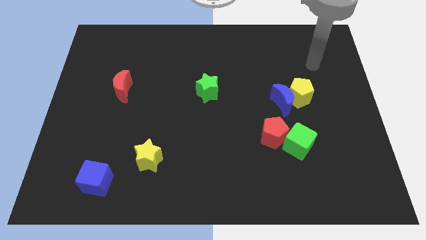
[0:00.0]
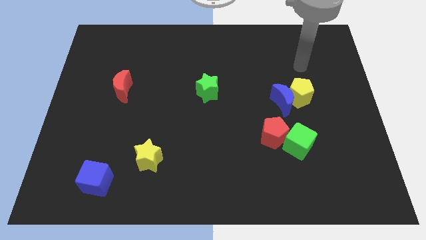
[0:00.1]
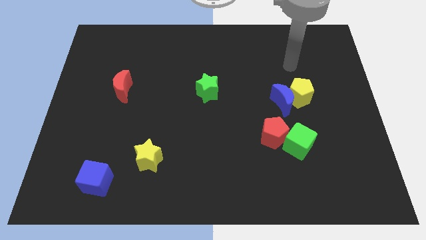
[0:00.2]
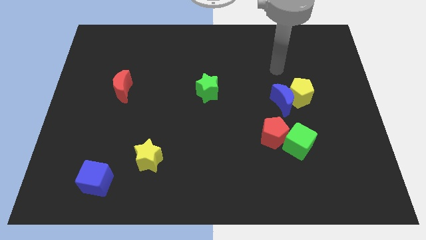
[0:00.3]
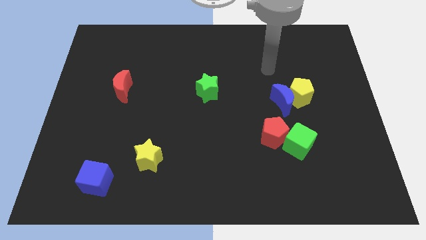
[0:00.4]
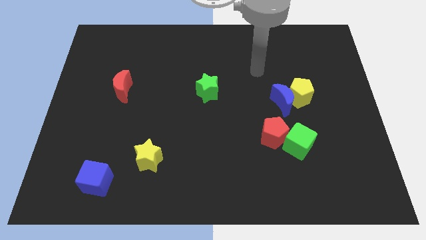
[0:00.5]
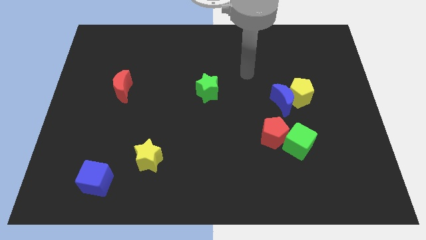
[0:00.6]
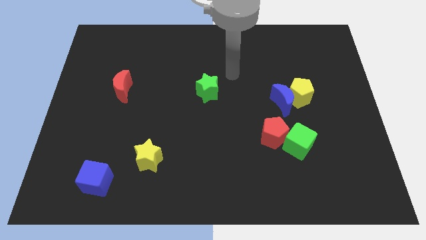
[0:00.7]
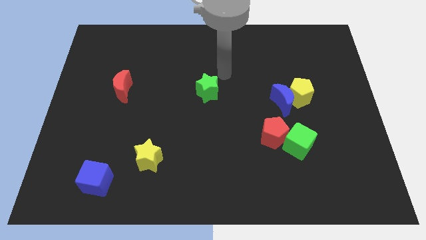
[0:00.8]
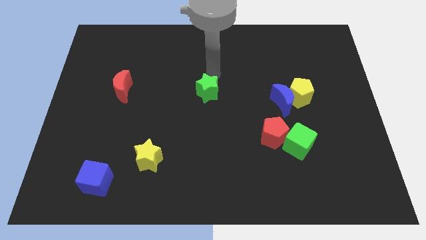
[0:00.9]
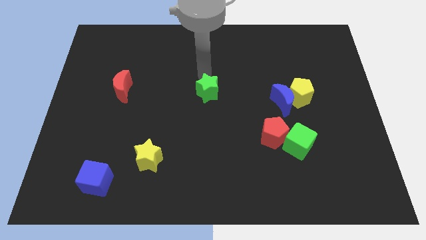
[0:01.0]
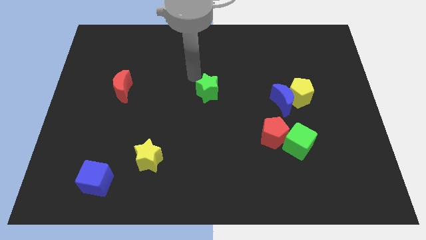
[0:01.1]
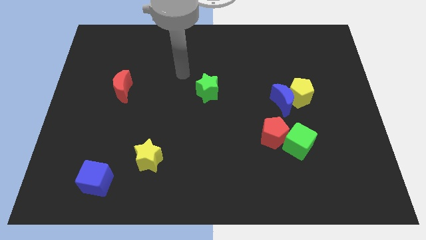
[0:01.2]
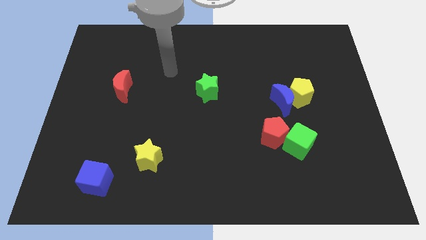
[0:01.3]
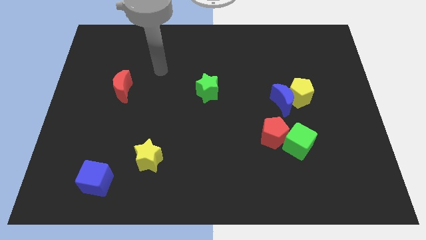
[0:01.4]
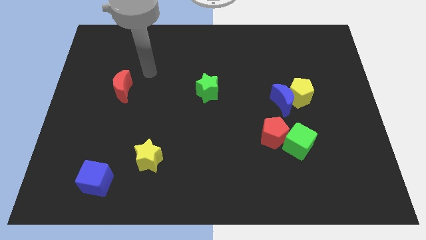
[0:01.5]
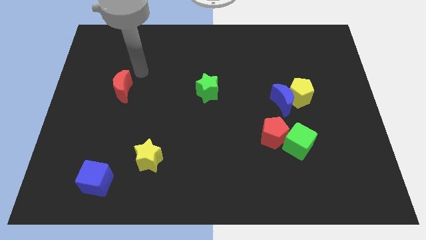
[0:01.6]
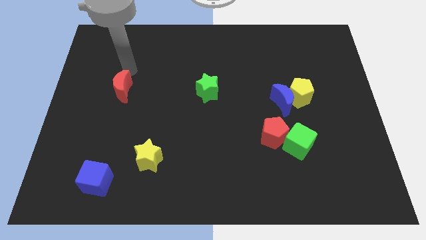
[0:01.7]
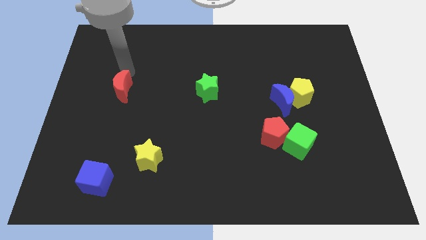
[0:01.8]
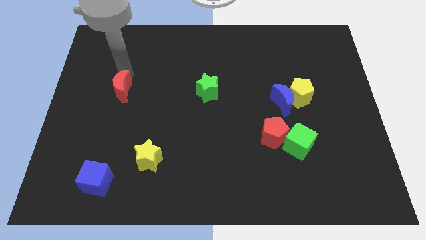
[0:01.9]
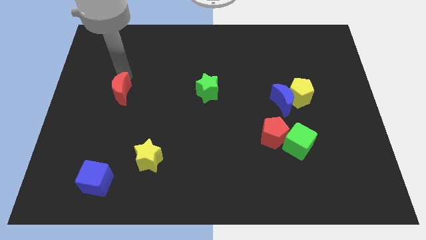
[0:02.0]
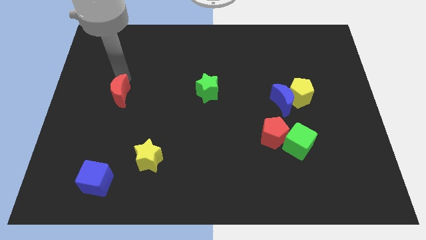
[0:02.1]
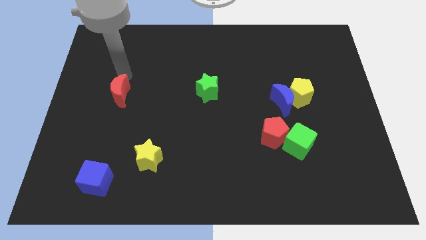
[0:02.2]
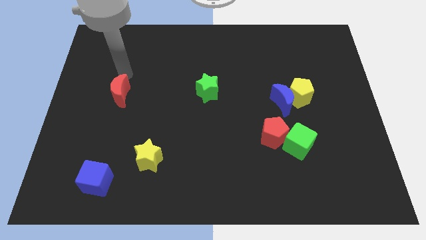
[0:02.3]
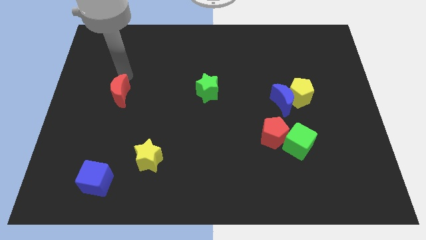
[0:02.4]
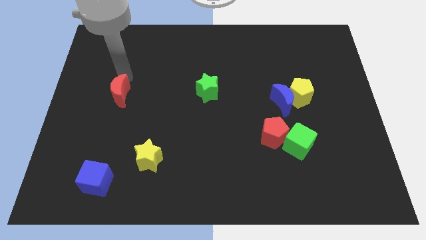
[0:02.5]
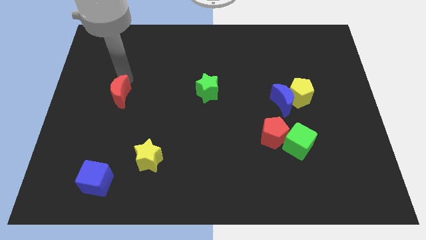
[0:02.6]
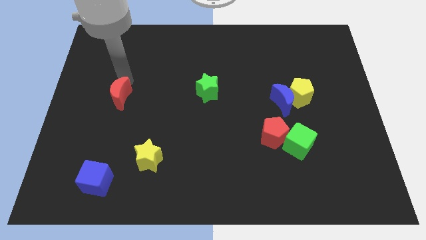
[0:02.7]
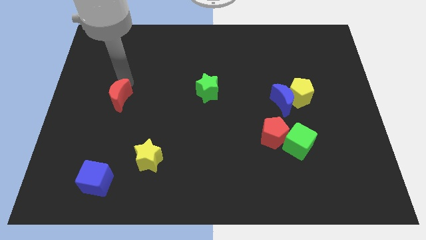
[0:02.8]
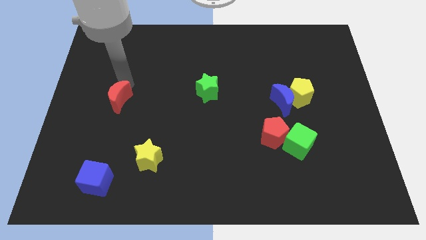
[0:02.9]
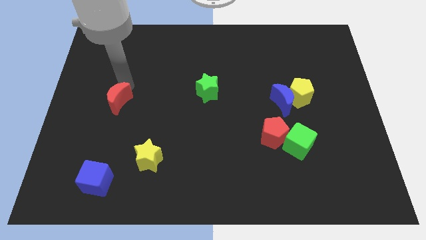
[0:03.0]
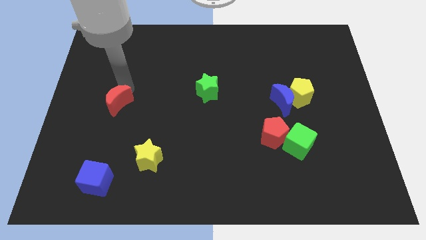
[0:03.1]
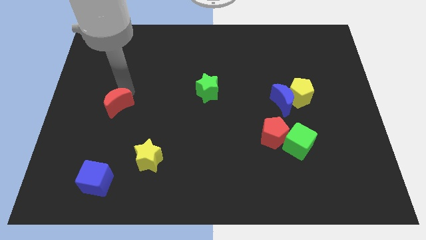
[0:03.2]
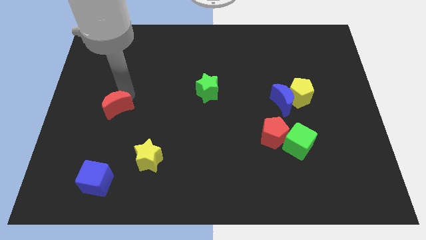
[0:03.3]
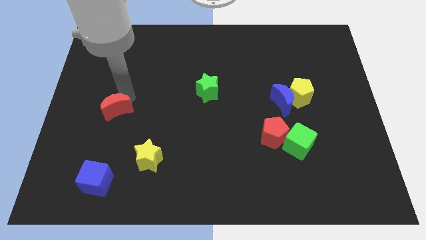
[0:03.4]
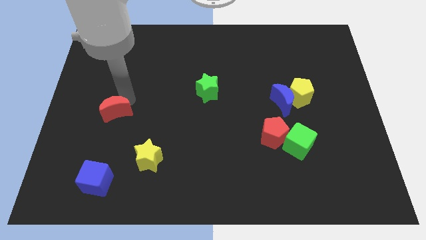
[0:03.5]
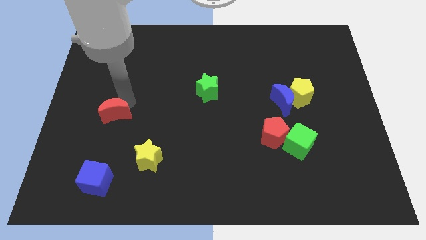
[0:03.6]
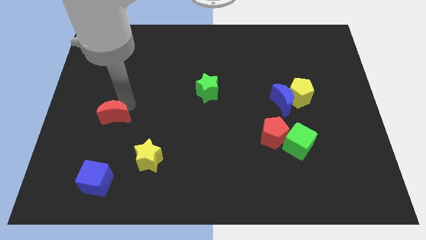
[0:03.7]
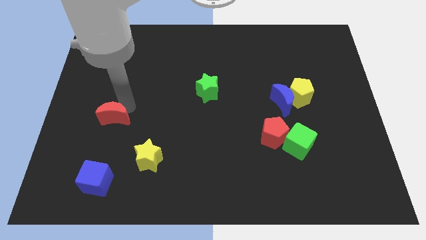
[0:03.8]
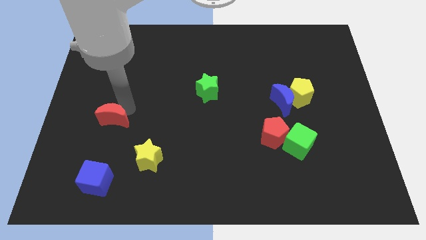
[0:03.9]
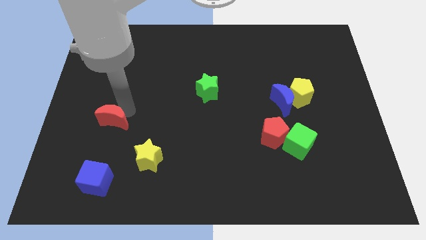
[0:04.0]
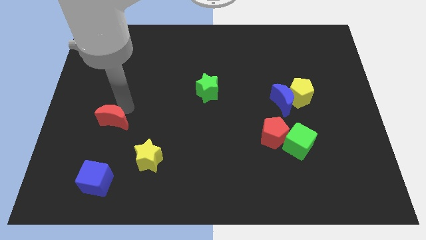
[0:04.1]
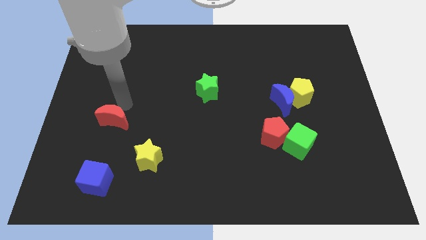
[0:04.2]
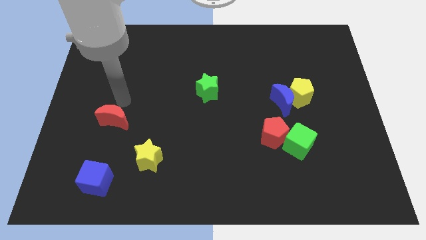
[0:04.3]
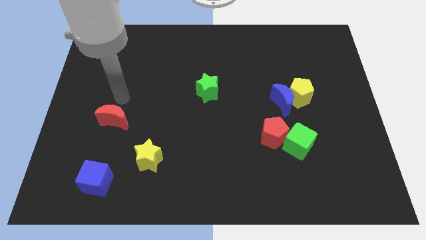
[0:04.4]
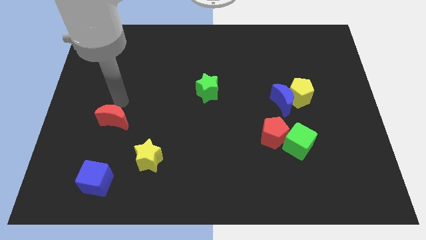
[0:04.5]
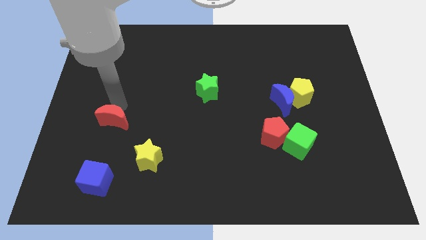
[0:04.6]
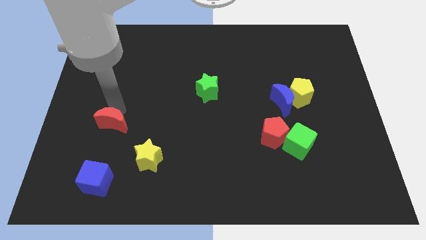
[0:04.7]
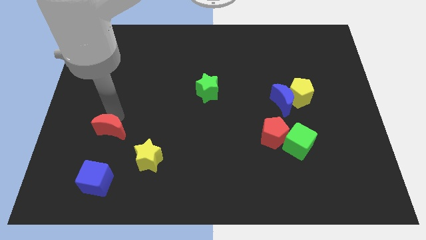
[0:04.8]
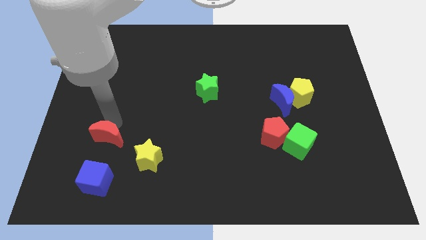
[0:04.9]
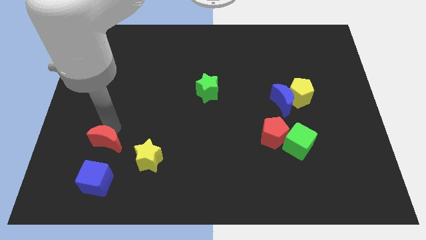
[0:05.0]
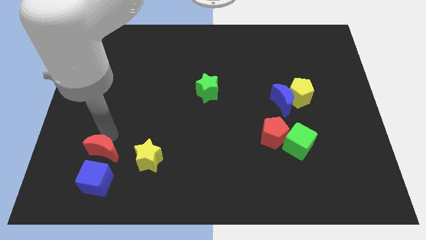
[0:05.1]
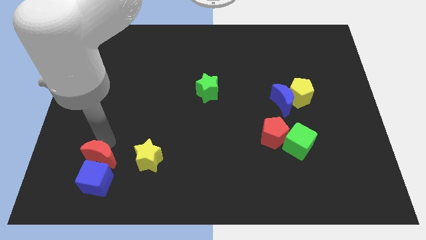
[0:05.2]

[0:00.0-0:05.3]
move the red moon next to the blue cube

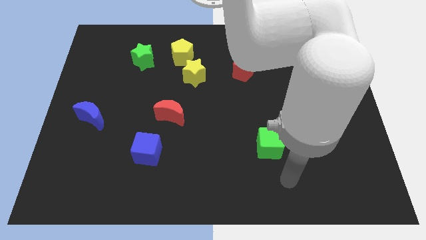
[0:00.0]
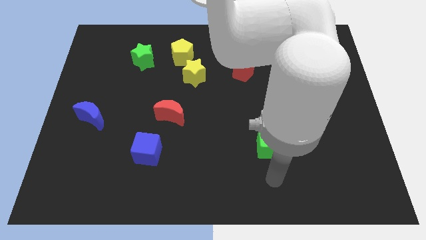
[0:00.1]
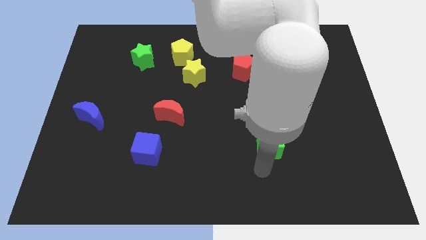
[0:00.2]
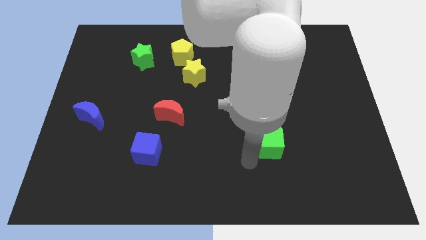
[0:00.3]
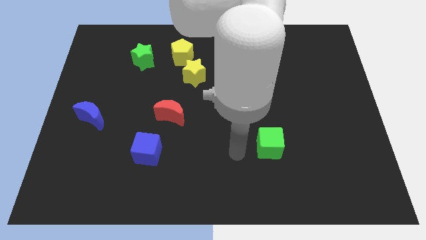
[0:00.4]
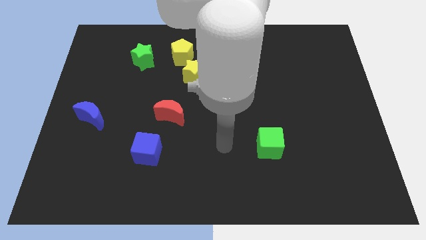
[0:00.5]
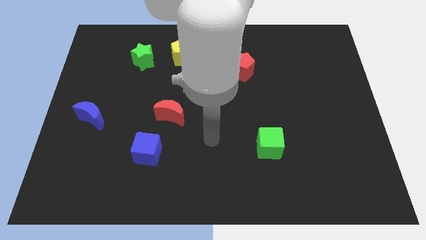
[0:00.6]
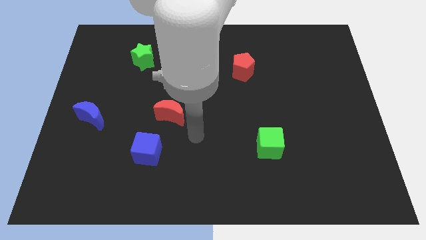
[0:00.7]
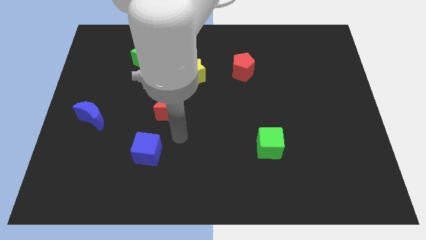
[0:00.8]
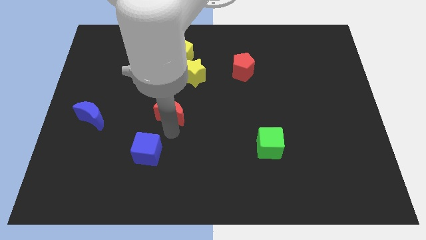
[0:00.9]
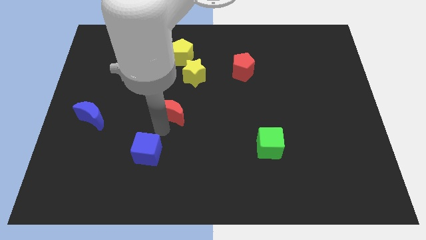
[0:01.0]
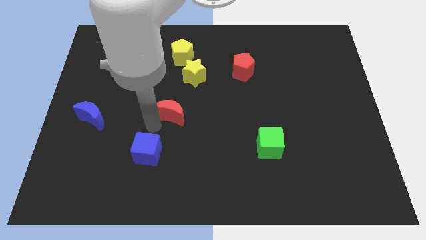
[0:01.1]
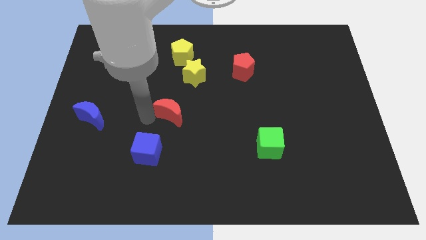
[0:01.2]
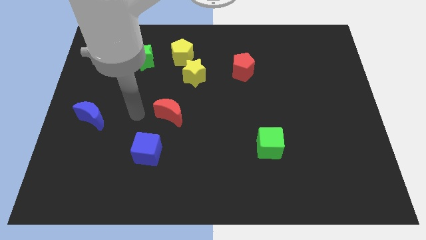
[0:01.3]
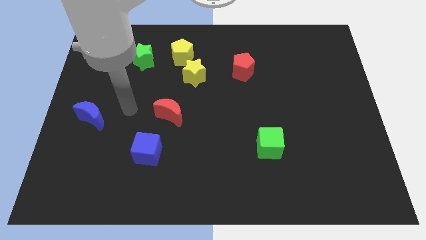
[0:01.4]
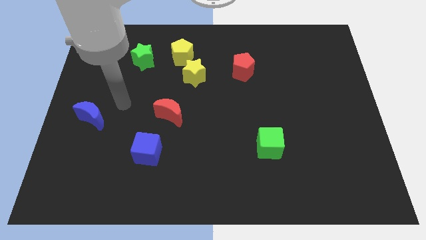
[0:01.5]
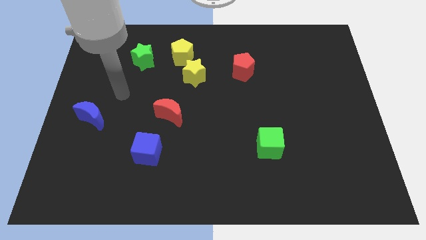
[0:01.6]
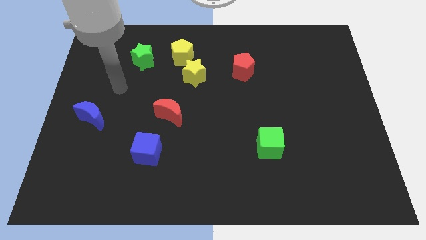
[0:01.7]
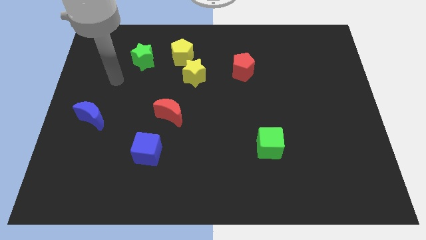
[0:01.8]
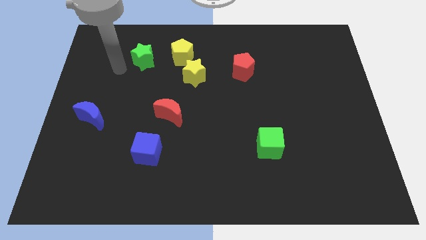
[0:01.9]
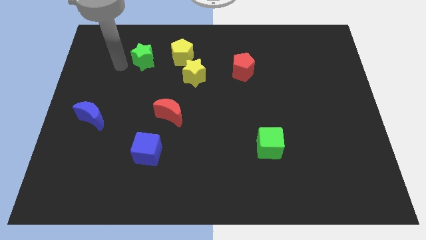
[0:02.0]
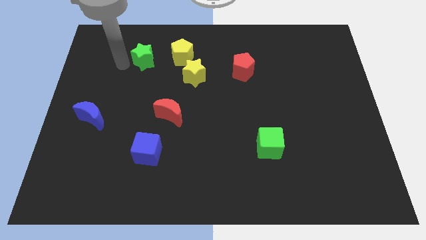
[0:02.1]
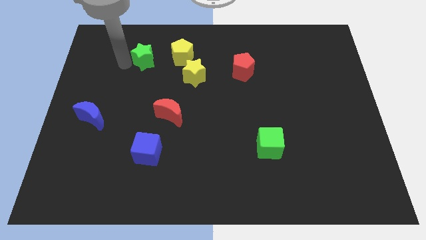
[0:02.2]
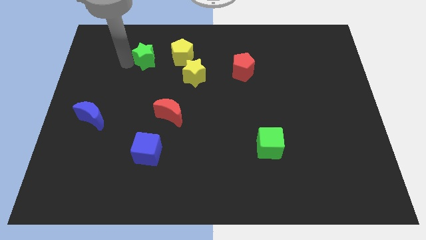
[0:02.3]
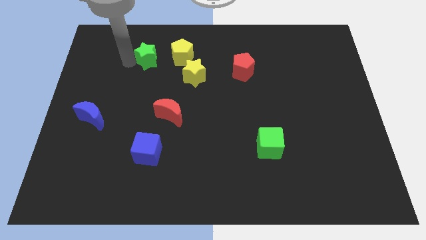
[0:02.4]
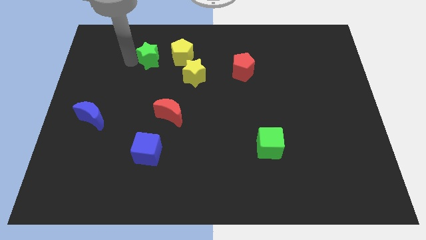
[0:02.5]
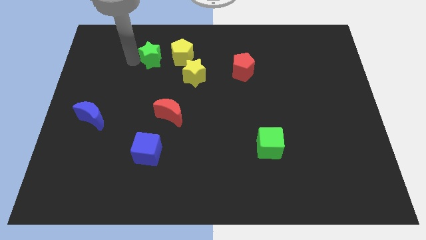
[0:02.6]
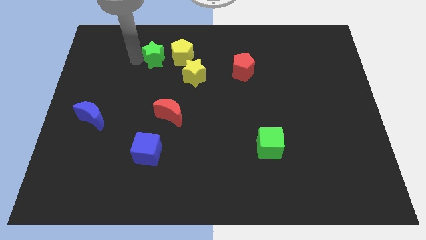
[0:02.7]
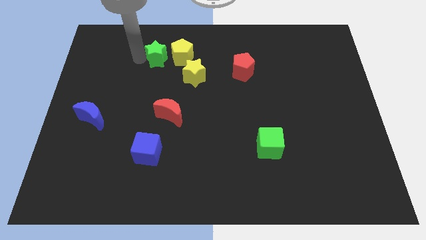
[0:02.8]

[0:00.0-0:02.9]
push the green star to the yellow pentagon

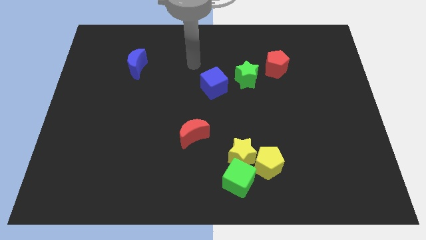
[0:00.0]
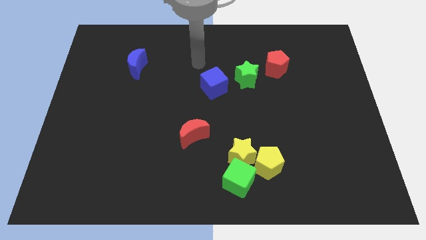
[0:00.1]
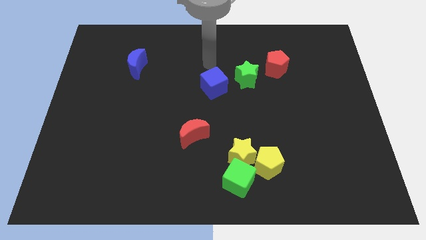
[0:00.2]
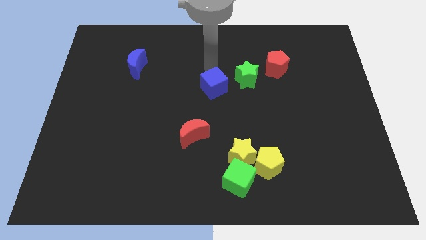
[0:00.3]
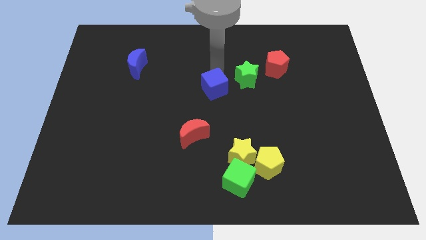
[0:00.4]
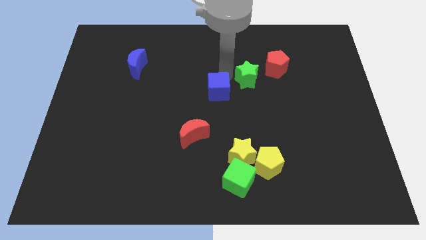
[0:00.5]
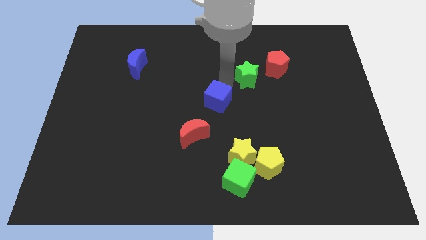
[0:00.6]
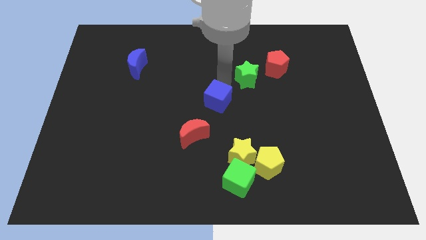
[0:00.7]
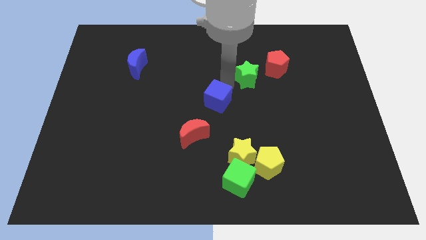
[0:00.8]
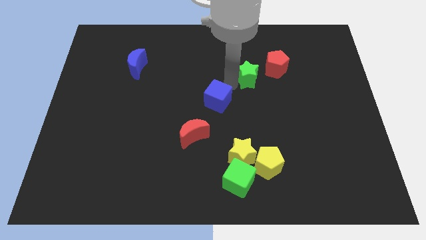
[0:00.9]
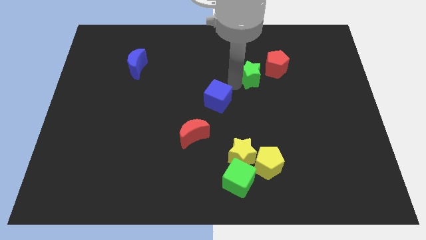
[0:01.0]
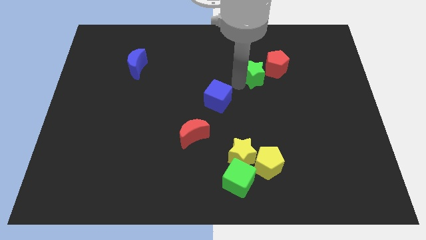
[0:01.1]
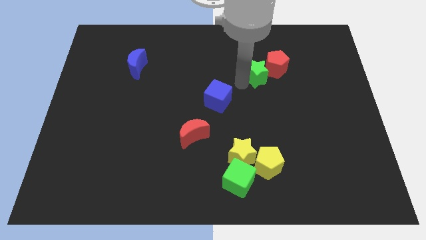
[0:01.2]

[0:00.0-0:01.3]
slide the green star towards the red pentagon
